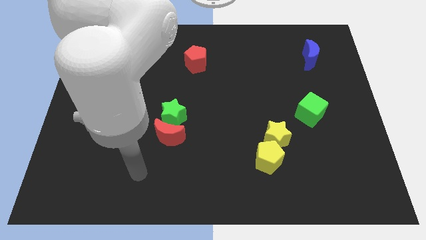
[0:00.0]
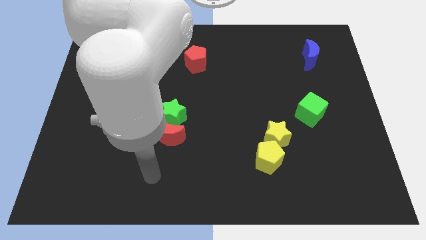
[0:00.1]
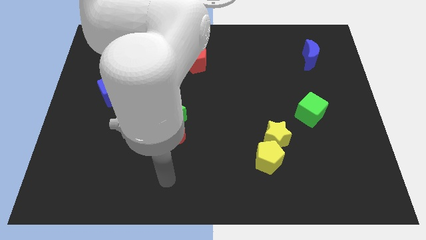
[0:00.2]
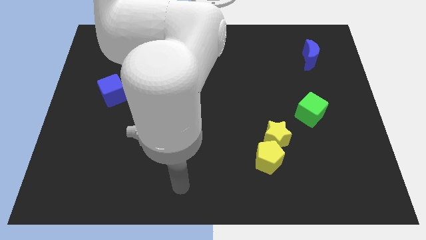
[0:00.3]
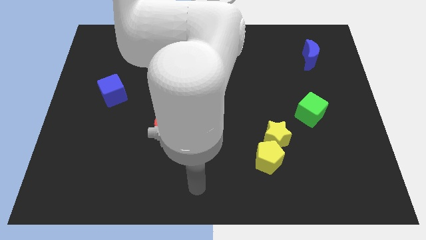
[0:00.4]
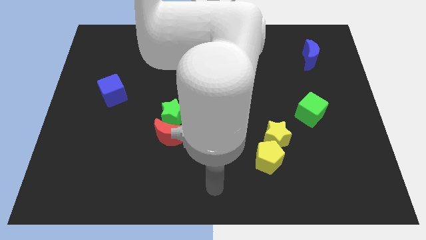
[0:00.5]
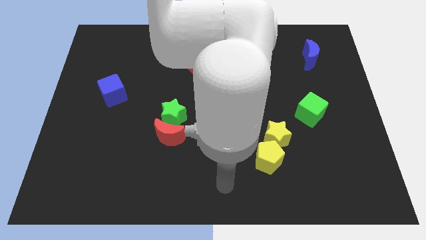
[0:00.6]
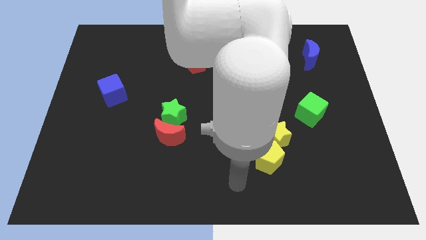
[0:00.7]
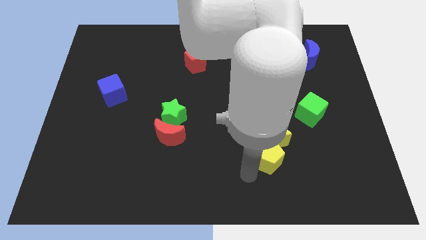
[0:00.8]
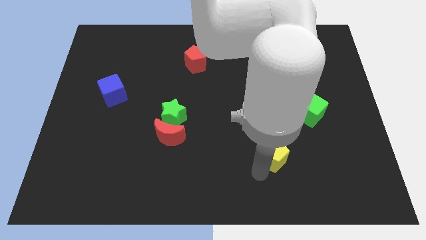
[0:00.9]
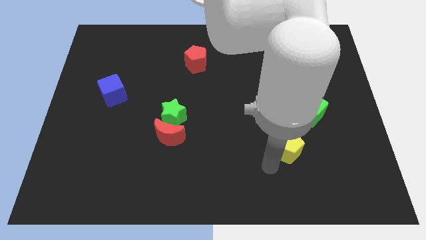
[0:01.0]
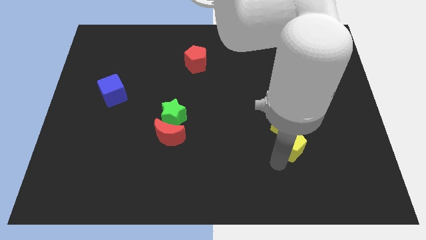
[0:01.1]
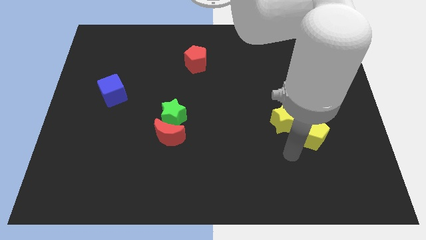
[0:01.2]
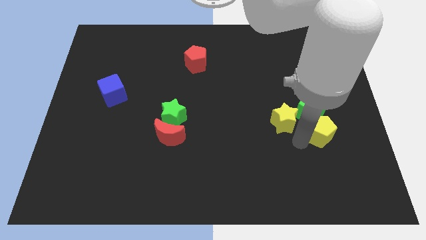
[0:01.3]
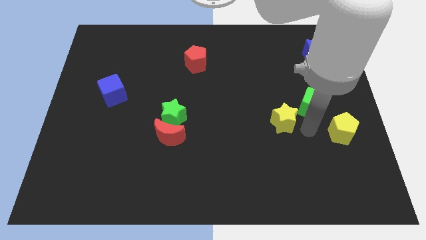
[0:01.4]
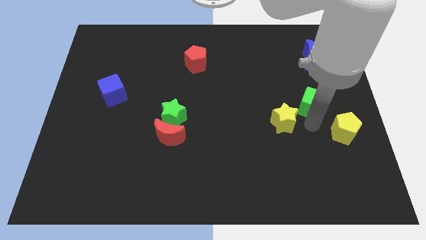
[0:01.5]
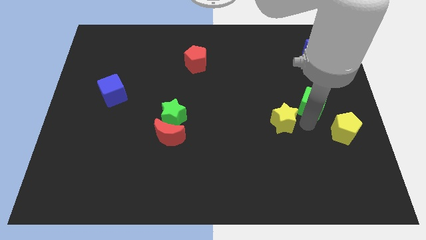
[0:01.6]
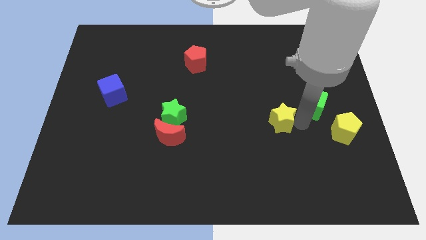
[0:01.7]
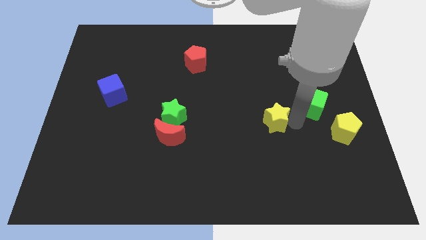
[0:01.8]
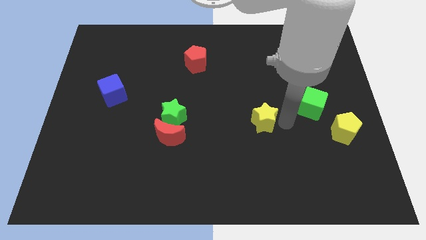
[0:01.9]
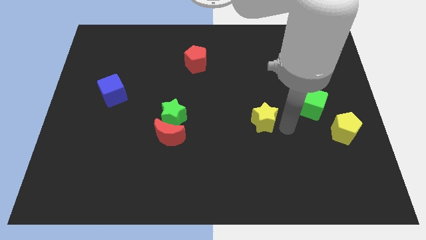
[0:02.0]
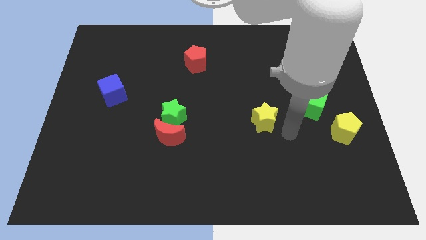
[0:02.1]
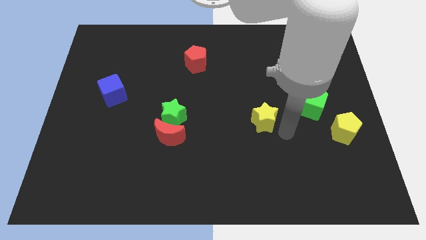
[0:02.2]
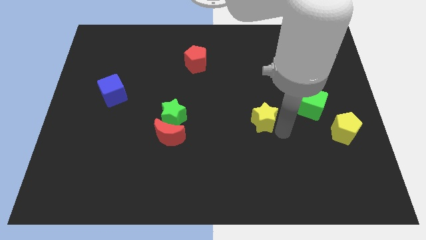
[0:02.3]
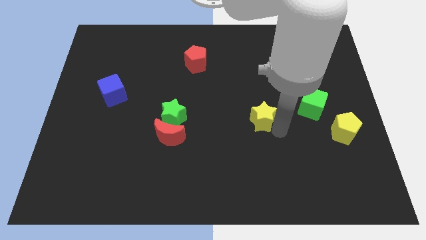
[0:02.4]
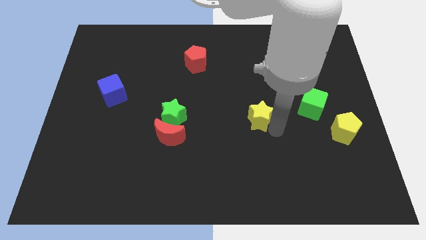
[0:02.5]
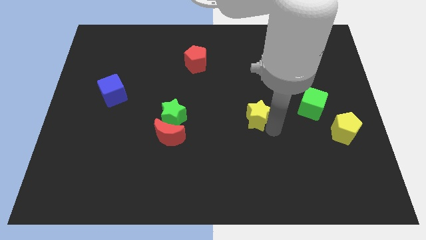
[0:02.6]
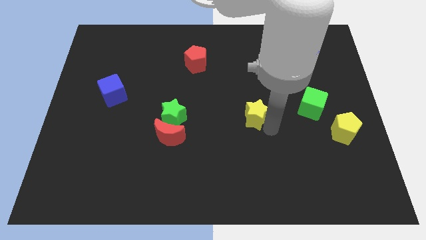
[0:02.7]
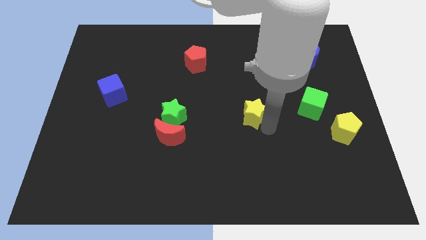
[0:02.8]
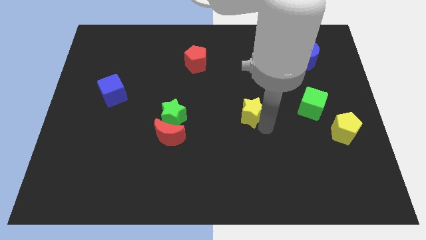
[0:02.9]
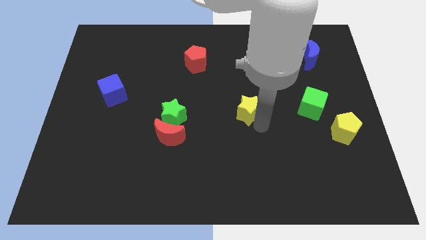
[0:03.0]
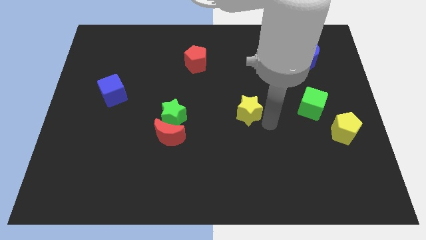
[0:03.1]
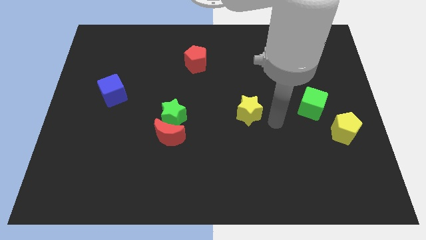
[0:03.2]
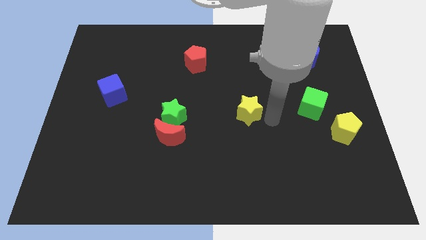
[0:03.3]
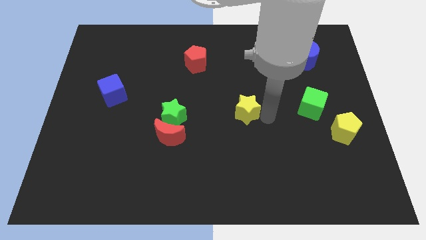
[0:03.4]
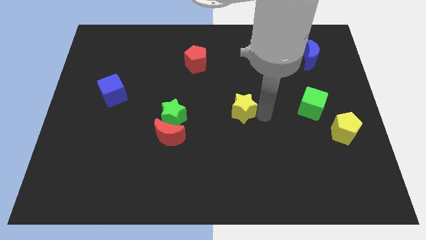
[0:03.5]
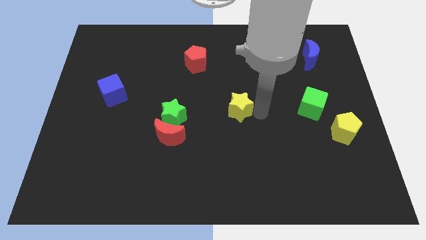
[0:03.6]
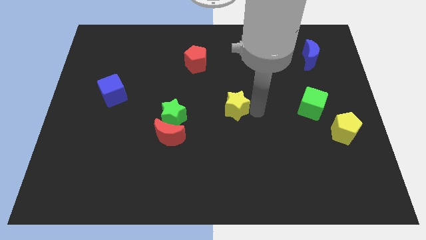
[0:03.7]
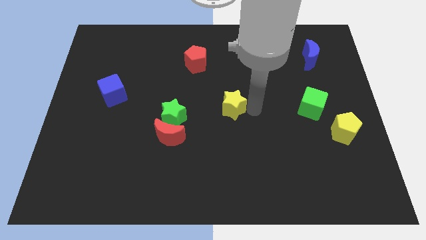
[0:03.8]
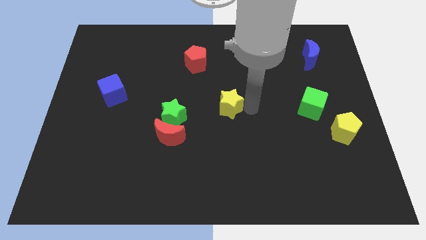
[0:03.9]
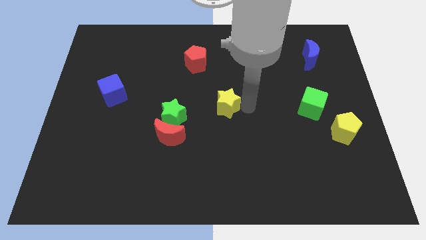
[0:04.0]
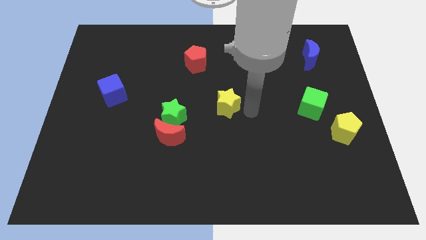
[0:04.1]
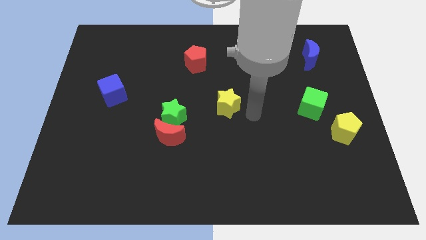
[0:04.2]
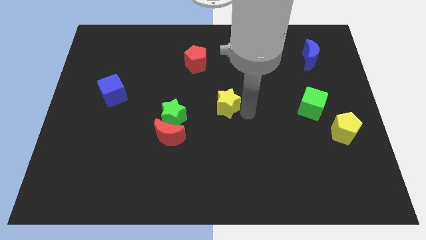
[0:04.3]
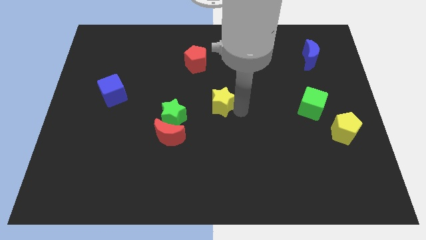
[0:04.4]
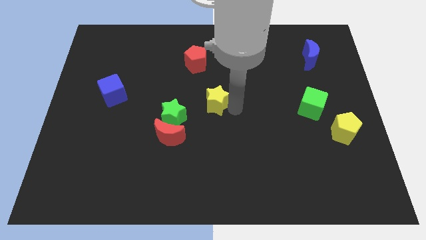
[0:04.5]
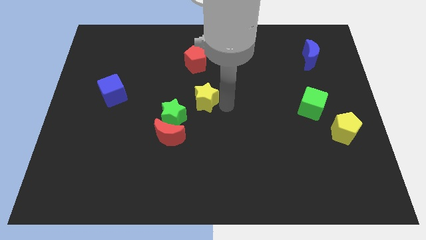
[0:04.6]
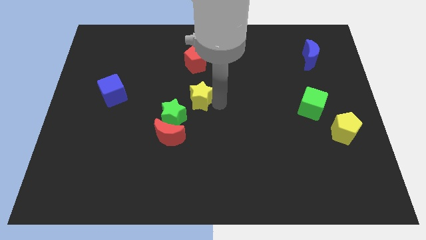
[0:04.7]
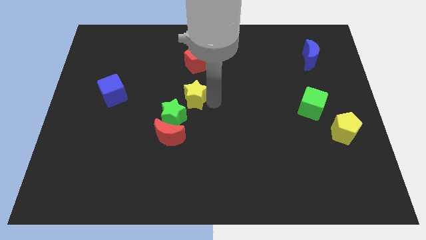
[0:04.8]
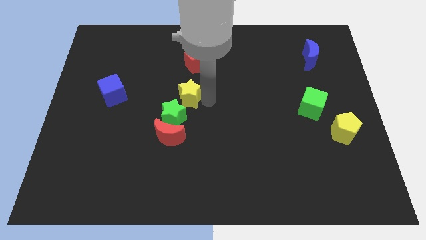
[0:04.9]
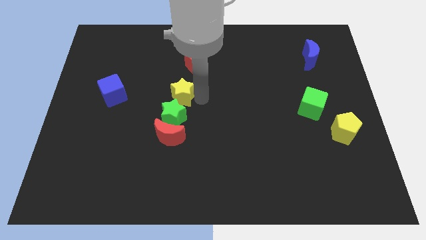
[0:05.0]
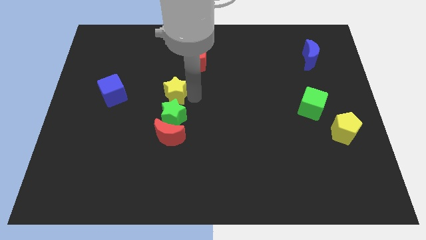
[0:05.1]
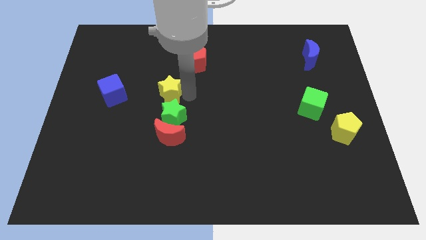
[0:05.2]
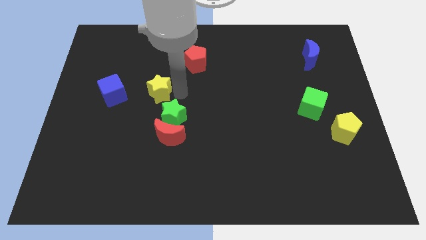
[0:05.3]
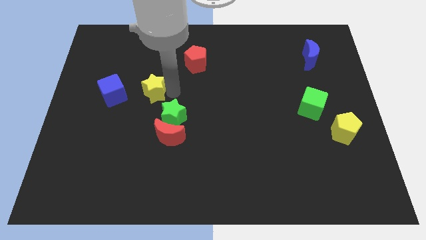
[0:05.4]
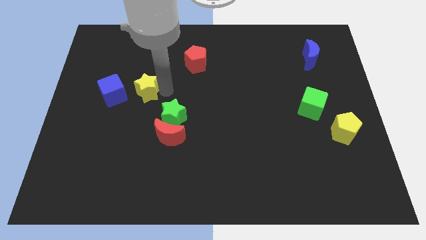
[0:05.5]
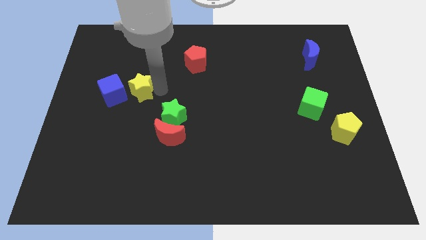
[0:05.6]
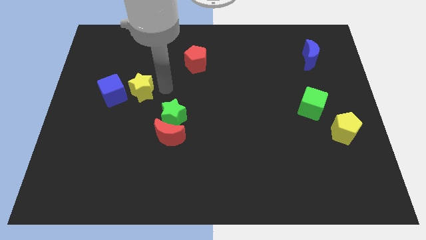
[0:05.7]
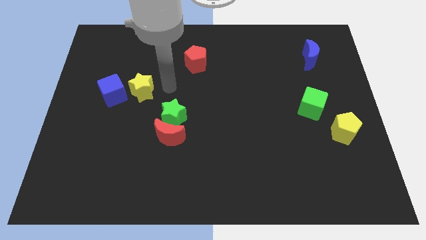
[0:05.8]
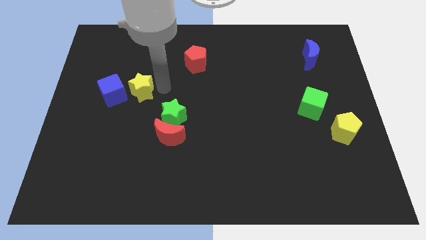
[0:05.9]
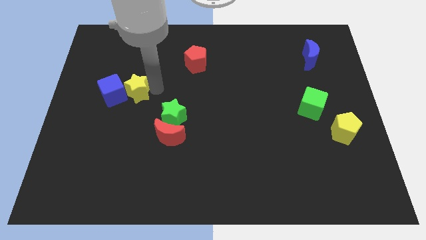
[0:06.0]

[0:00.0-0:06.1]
move the yellow star towards the blue cube

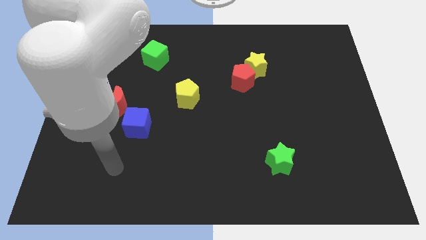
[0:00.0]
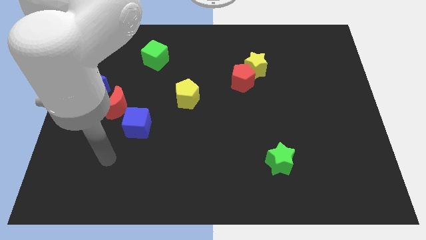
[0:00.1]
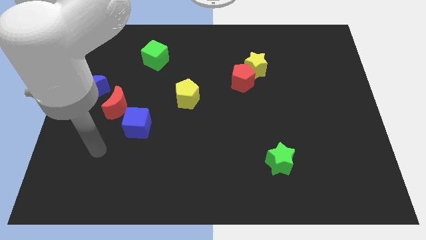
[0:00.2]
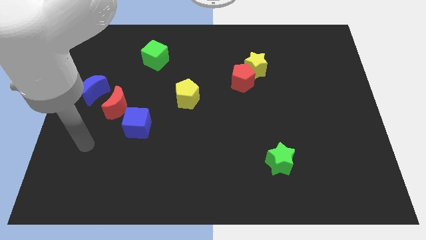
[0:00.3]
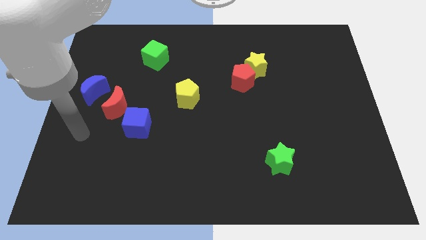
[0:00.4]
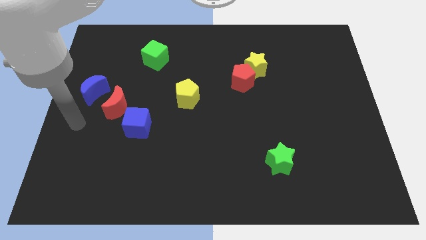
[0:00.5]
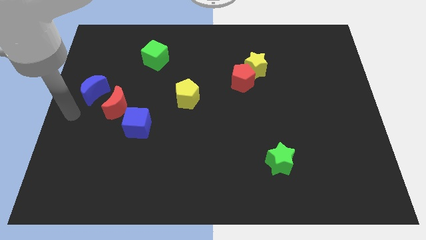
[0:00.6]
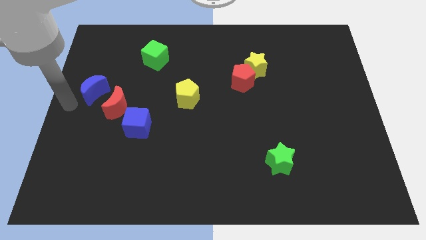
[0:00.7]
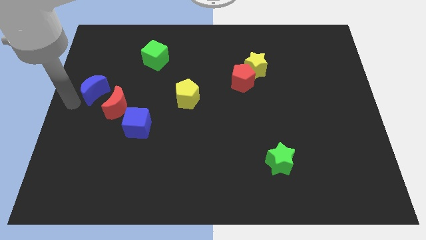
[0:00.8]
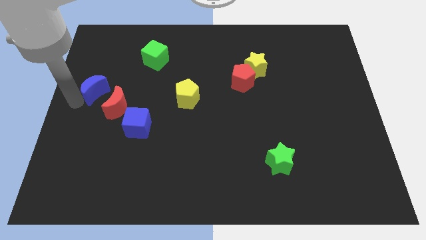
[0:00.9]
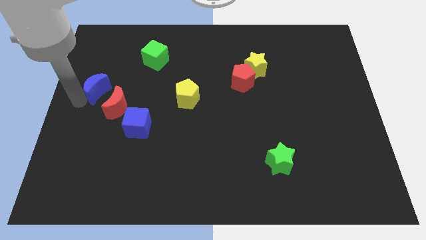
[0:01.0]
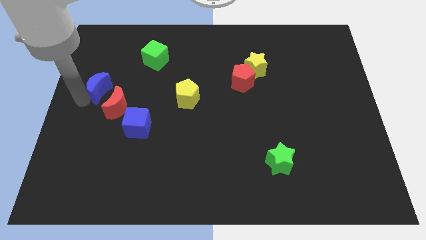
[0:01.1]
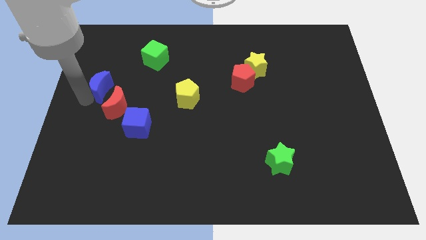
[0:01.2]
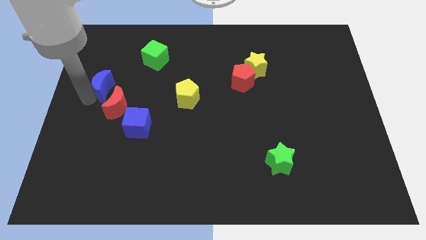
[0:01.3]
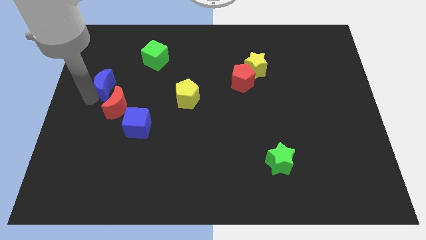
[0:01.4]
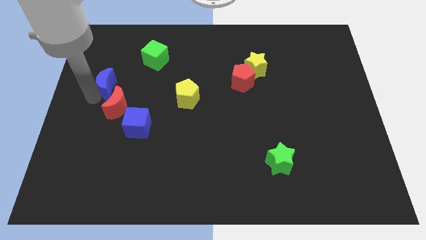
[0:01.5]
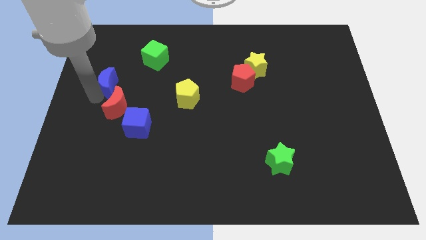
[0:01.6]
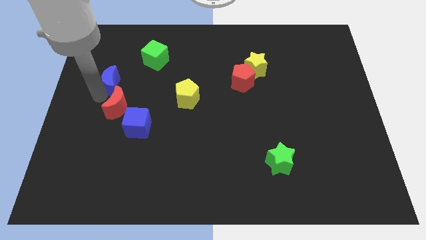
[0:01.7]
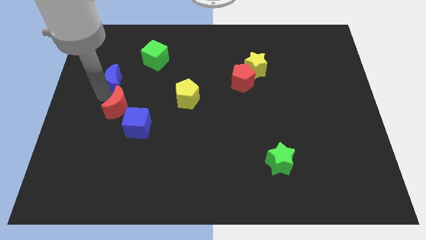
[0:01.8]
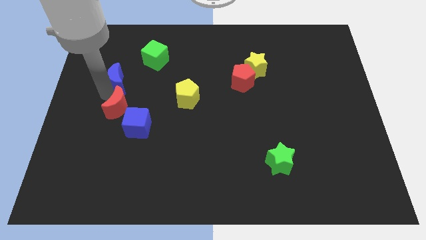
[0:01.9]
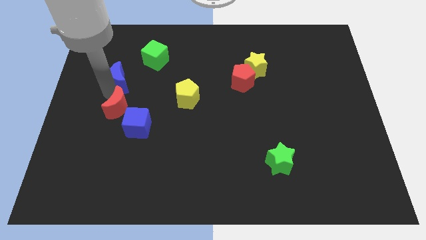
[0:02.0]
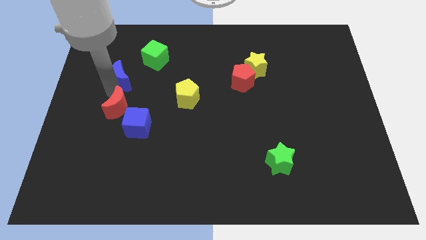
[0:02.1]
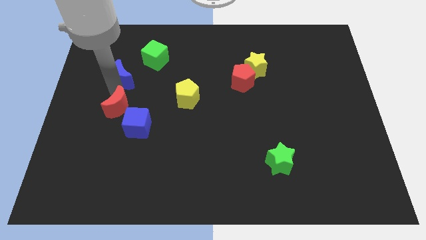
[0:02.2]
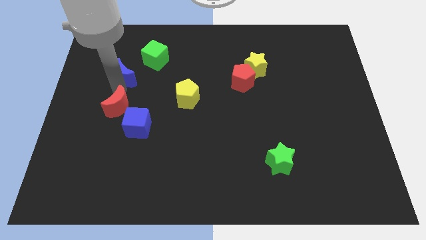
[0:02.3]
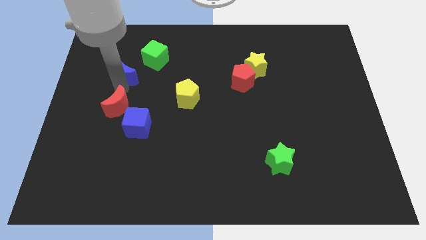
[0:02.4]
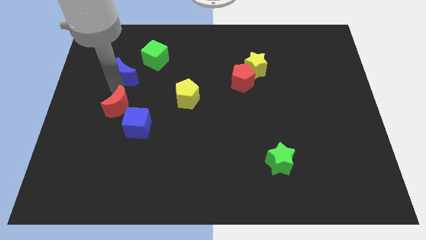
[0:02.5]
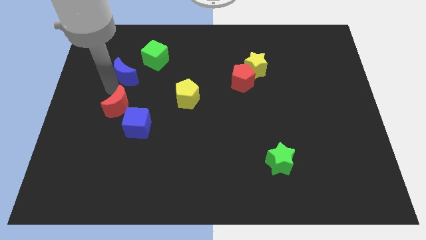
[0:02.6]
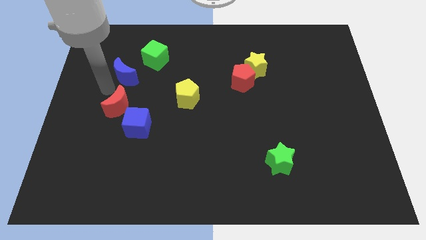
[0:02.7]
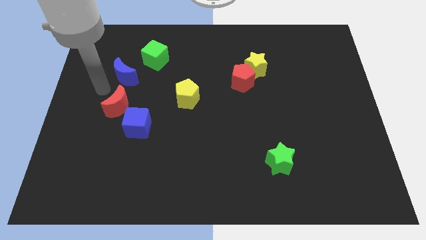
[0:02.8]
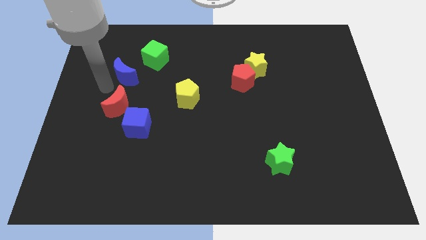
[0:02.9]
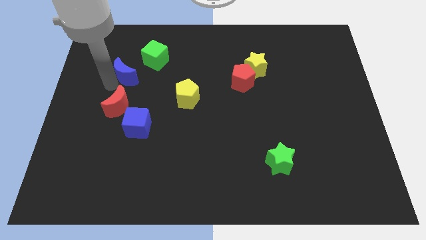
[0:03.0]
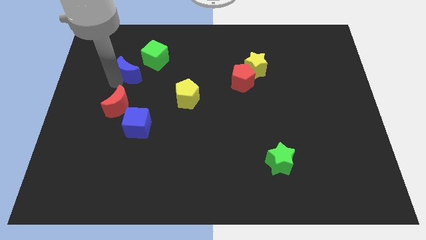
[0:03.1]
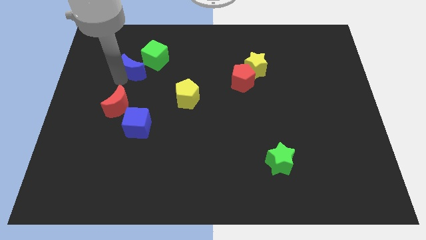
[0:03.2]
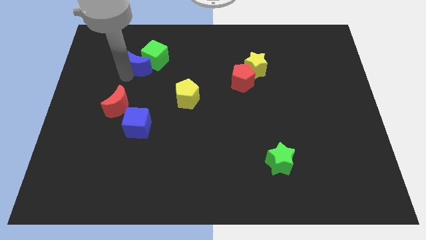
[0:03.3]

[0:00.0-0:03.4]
move the blue moon next to the green cube
